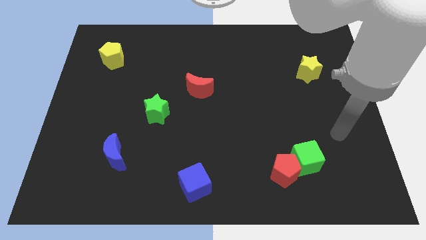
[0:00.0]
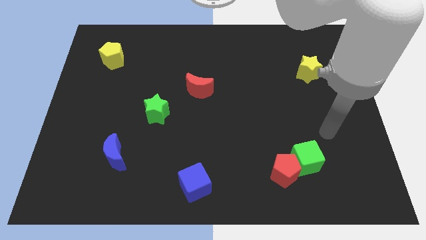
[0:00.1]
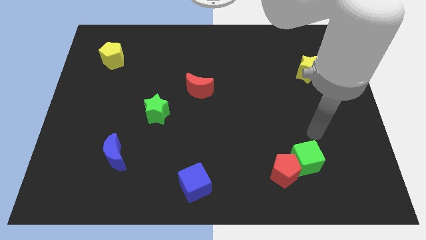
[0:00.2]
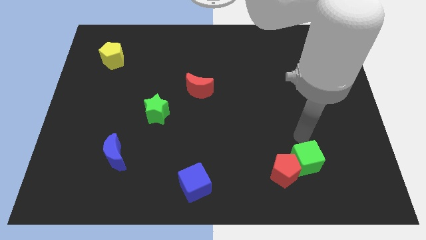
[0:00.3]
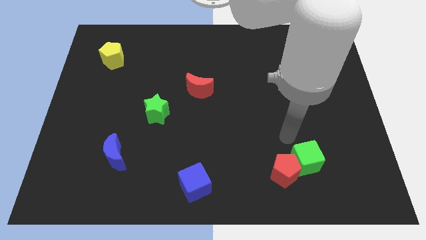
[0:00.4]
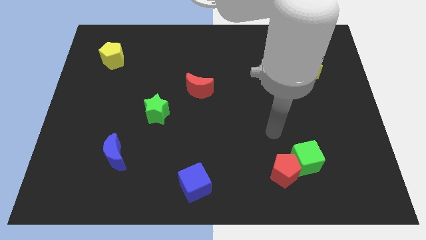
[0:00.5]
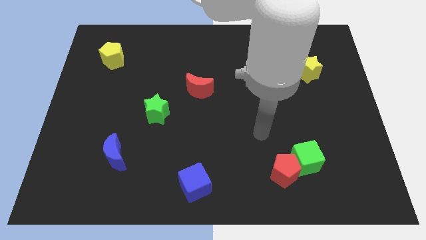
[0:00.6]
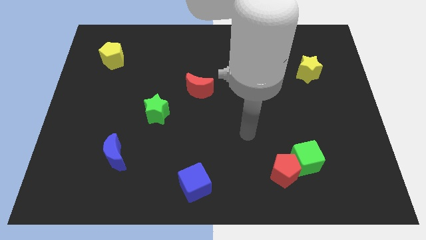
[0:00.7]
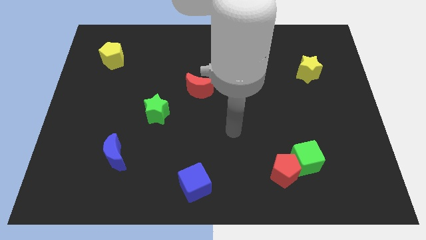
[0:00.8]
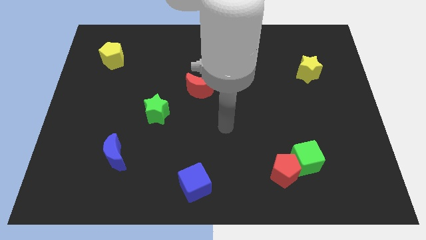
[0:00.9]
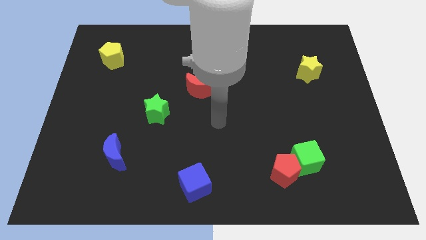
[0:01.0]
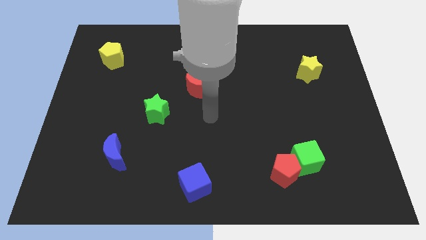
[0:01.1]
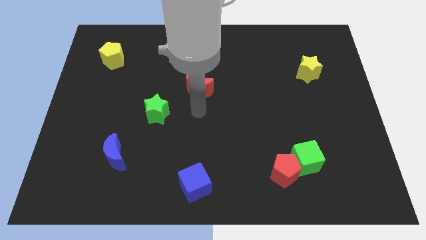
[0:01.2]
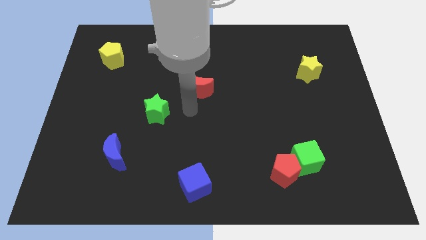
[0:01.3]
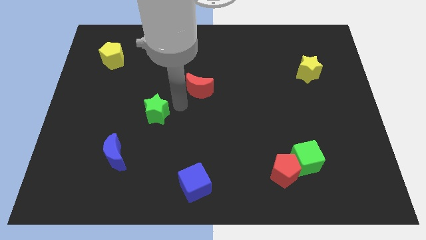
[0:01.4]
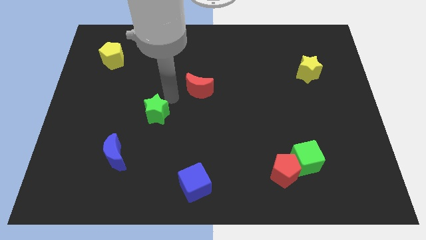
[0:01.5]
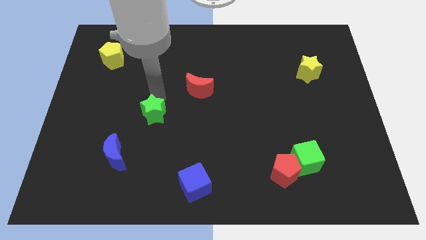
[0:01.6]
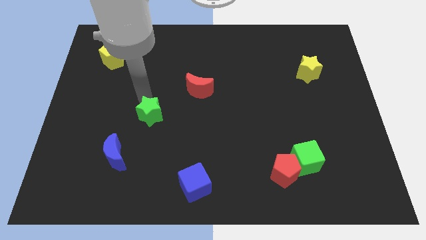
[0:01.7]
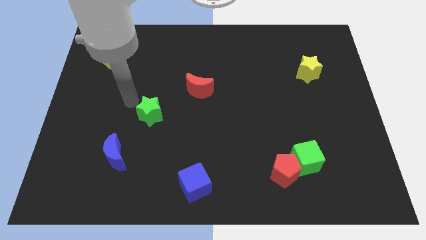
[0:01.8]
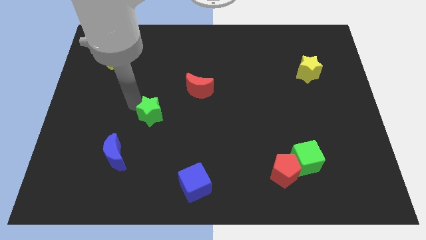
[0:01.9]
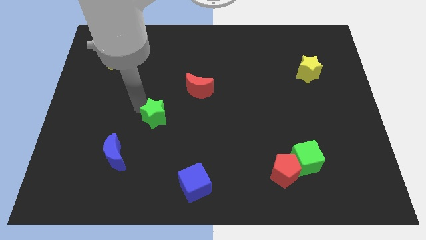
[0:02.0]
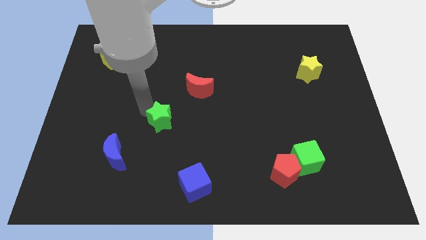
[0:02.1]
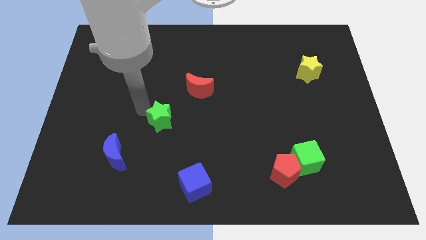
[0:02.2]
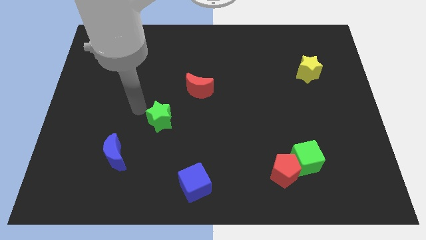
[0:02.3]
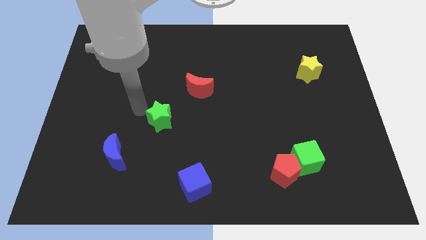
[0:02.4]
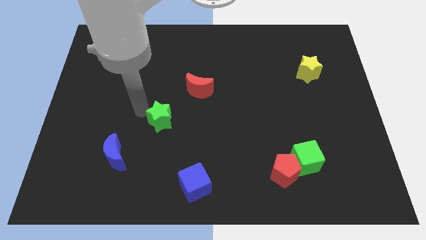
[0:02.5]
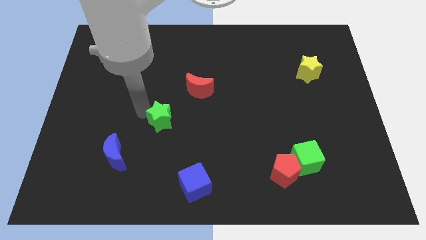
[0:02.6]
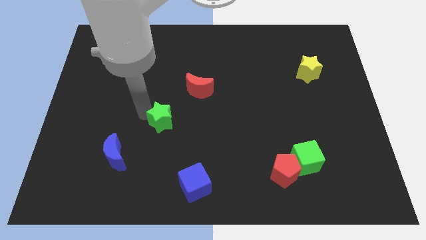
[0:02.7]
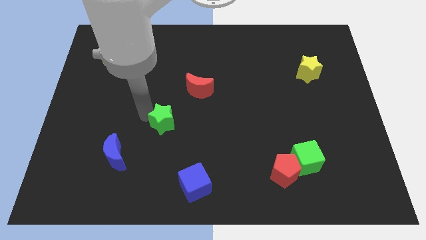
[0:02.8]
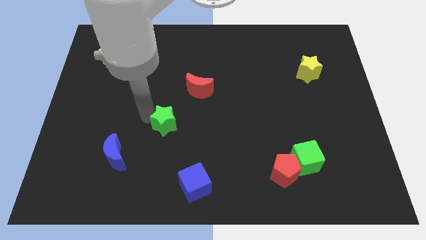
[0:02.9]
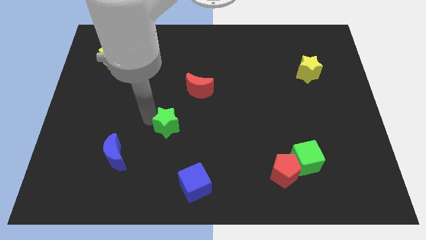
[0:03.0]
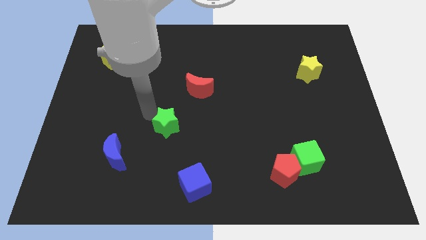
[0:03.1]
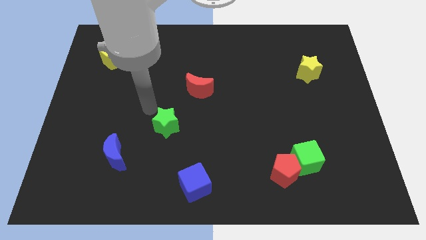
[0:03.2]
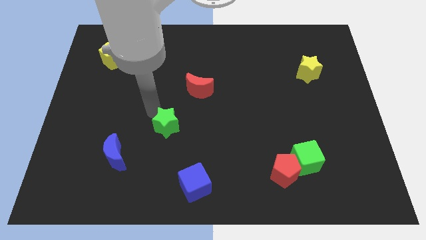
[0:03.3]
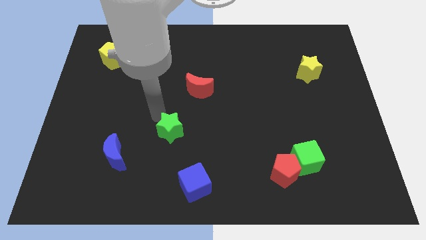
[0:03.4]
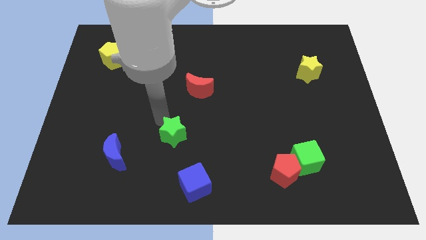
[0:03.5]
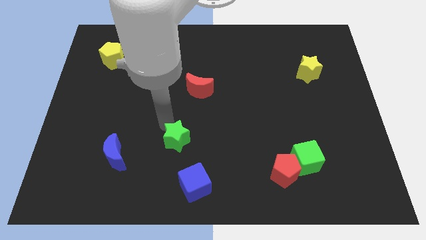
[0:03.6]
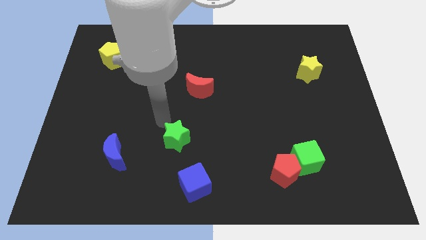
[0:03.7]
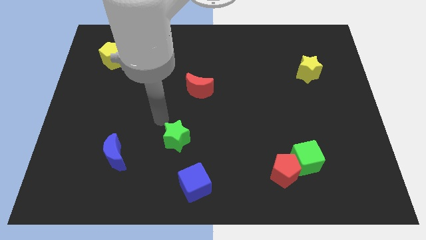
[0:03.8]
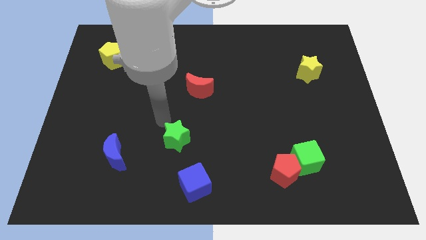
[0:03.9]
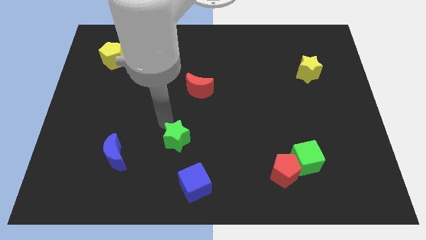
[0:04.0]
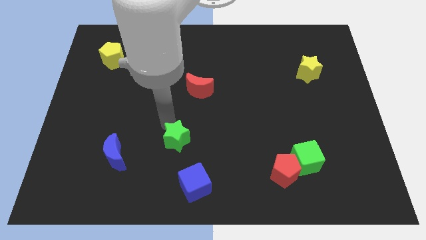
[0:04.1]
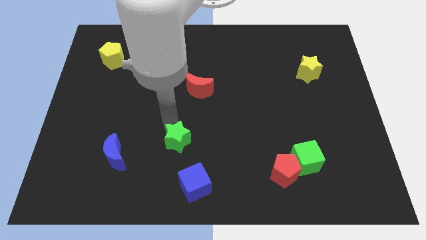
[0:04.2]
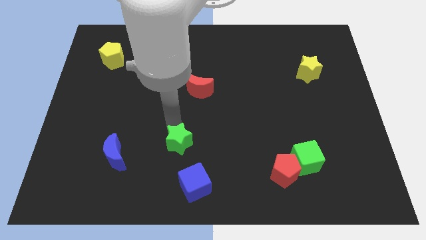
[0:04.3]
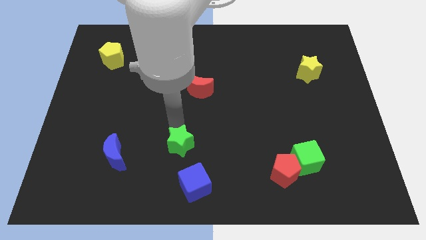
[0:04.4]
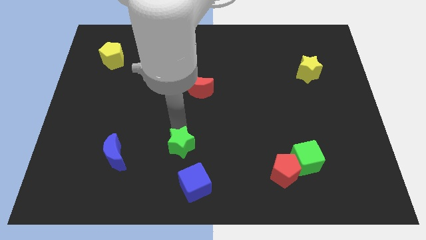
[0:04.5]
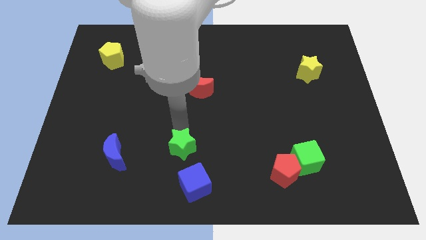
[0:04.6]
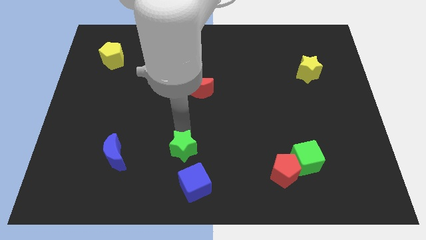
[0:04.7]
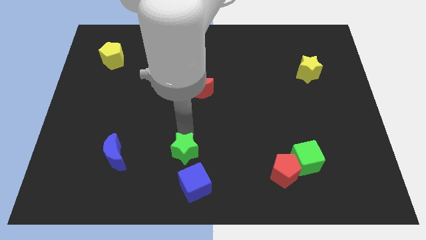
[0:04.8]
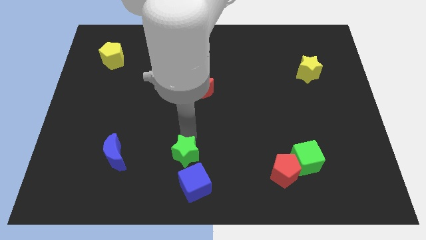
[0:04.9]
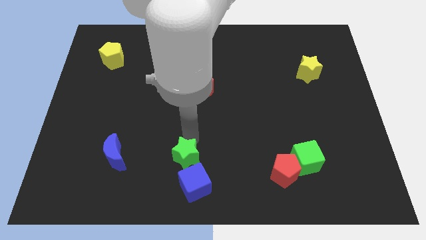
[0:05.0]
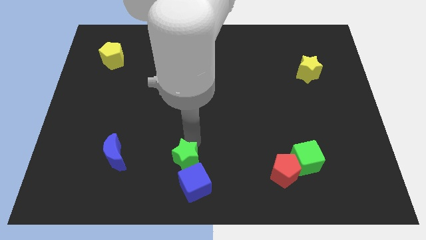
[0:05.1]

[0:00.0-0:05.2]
move the green star to the bottom

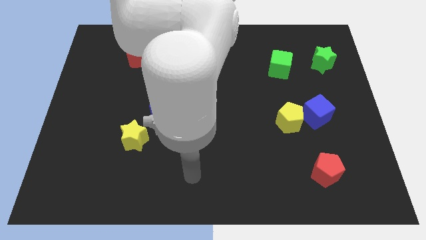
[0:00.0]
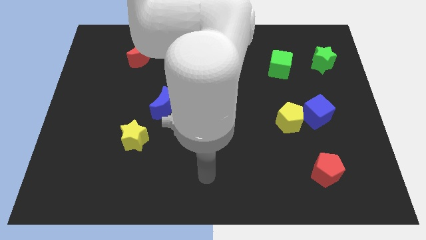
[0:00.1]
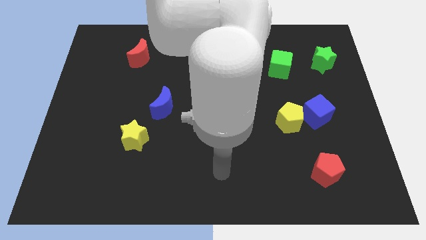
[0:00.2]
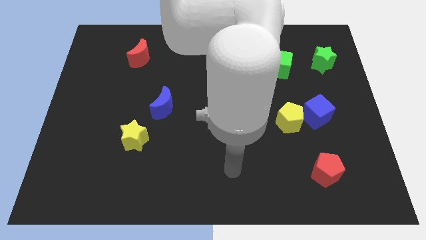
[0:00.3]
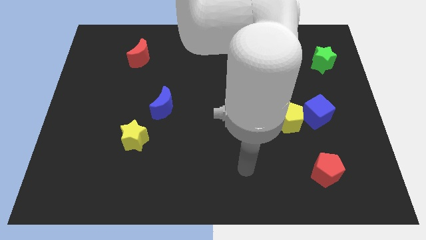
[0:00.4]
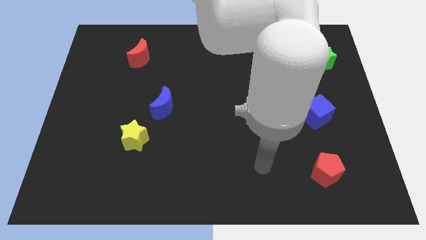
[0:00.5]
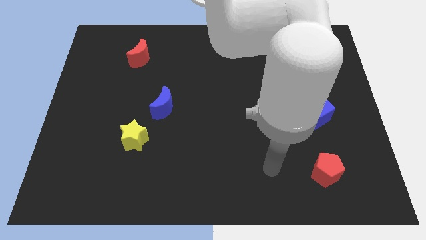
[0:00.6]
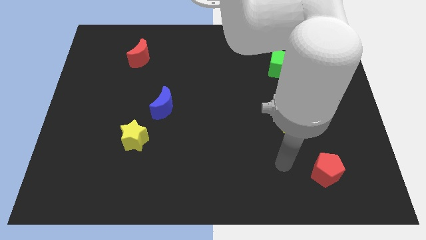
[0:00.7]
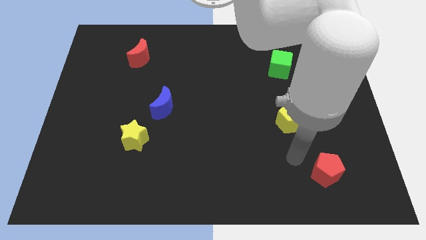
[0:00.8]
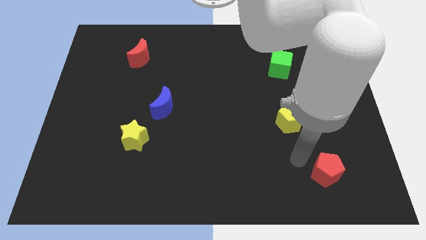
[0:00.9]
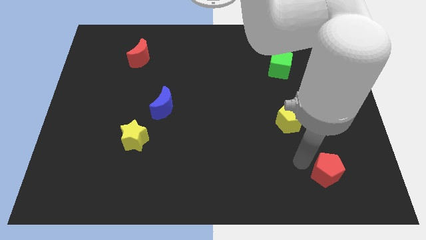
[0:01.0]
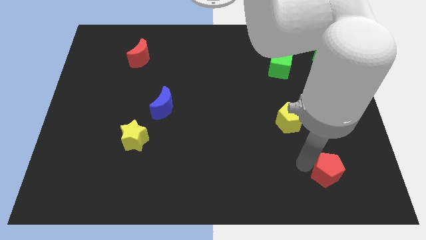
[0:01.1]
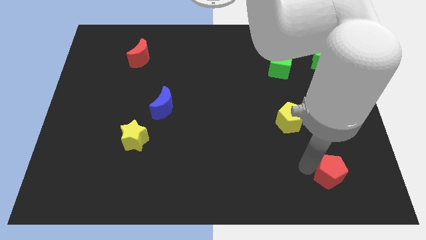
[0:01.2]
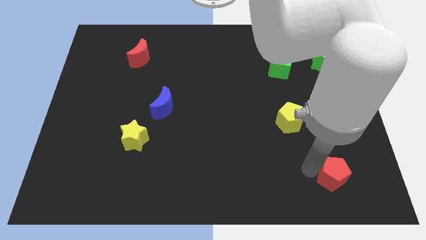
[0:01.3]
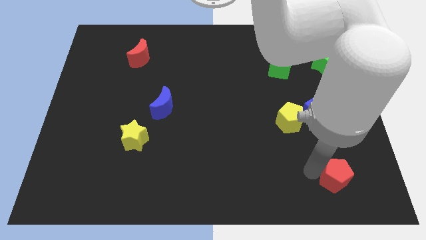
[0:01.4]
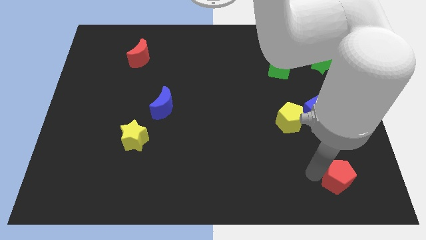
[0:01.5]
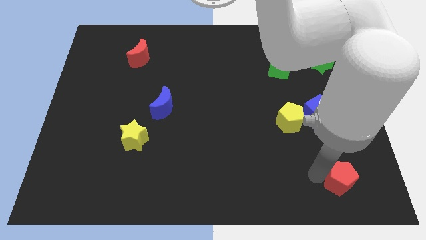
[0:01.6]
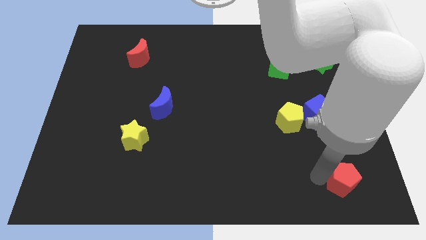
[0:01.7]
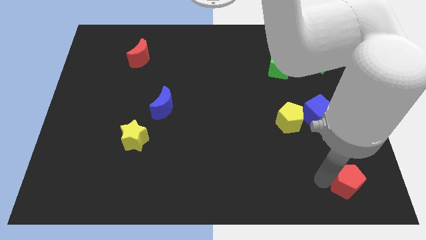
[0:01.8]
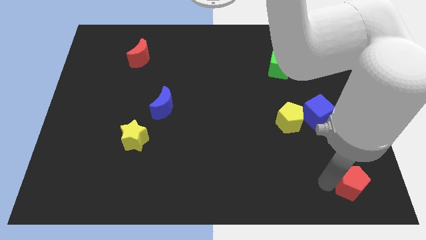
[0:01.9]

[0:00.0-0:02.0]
slide the red pentagon to the bottom right corner
